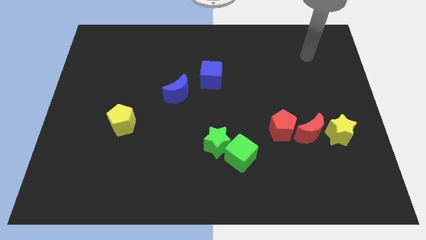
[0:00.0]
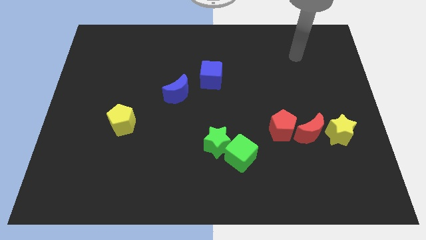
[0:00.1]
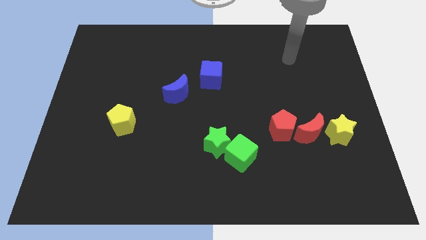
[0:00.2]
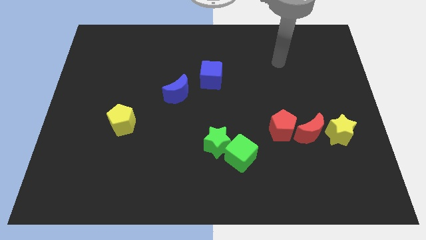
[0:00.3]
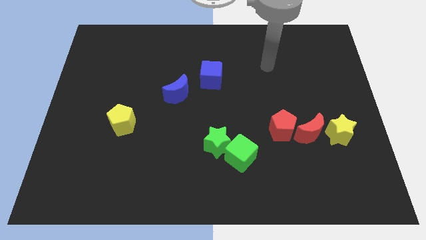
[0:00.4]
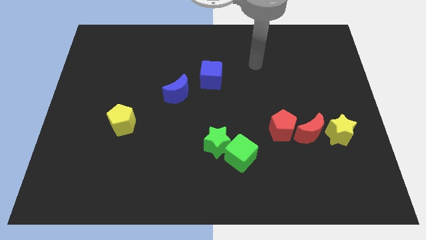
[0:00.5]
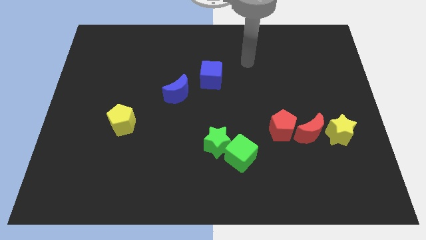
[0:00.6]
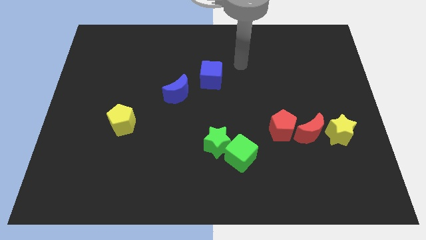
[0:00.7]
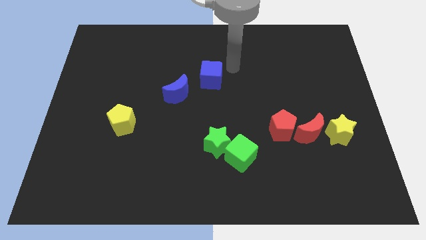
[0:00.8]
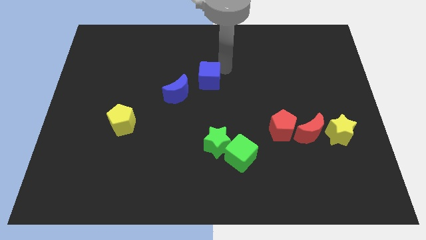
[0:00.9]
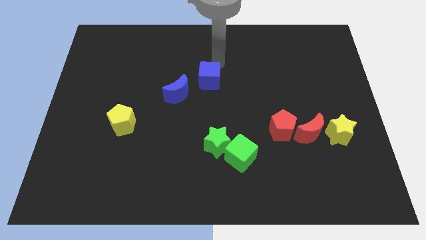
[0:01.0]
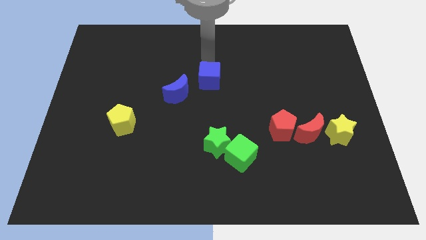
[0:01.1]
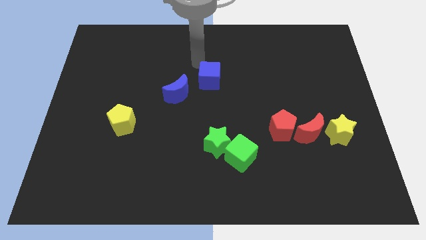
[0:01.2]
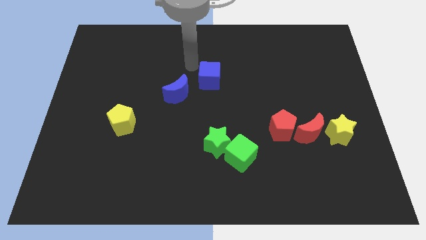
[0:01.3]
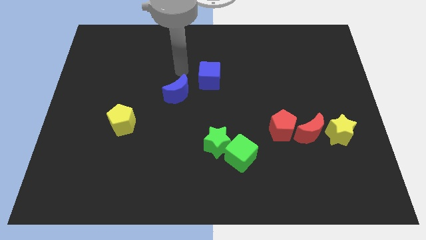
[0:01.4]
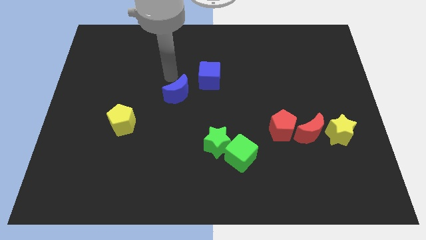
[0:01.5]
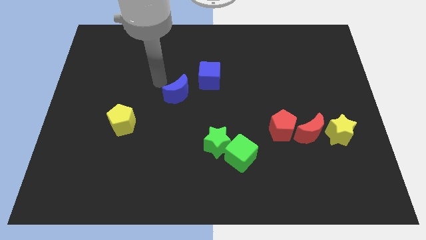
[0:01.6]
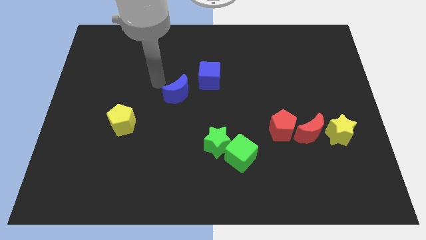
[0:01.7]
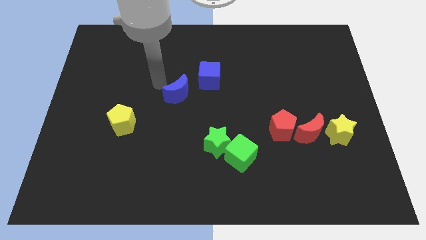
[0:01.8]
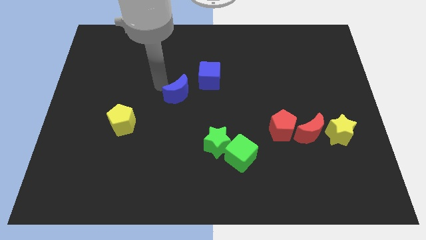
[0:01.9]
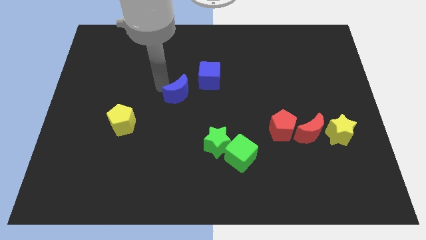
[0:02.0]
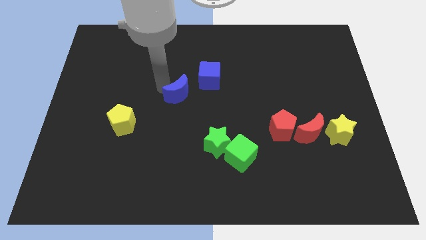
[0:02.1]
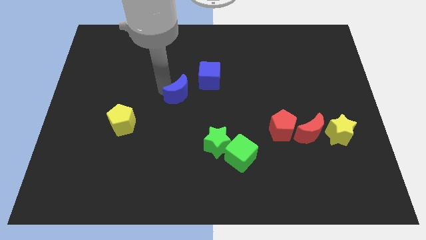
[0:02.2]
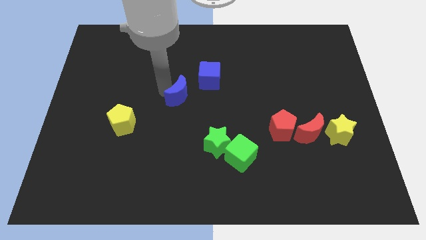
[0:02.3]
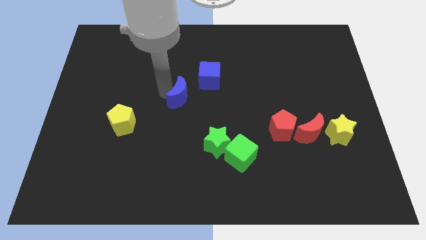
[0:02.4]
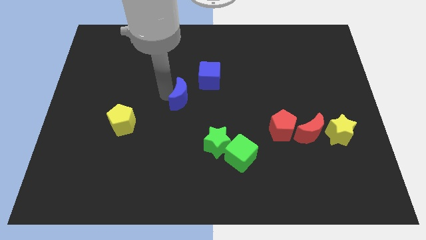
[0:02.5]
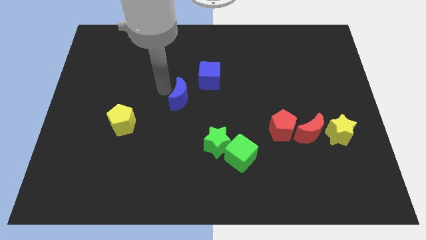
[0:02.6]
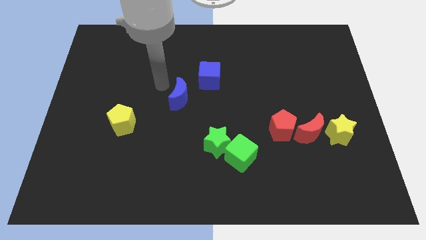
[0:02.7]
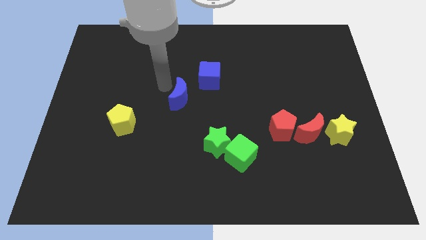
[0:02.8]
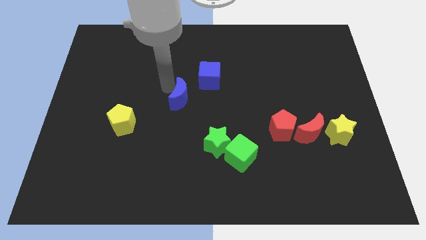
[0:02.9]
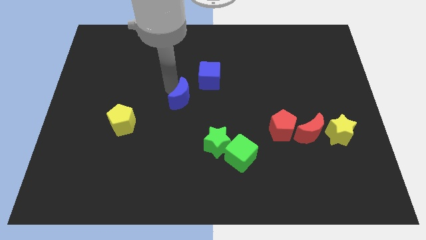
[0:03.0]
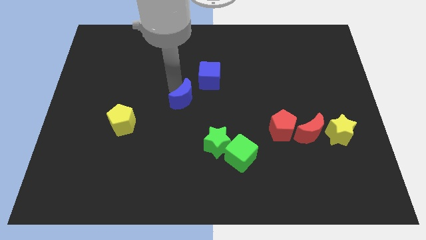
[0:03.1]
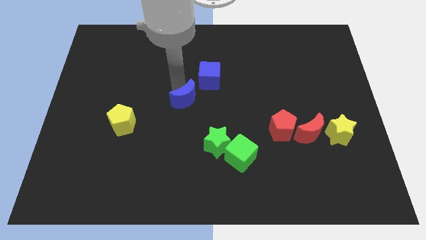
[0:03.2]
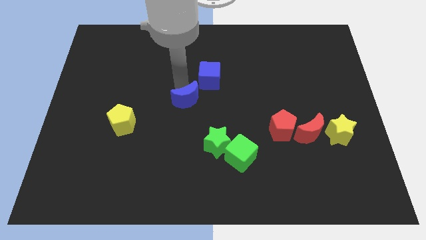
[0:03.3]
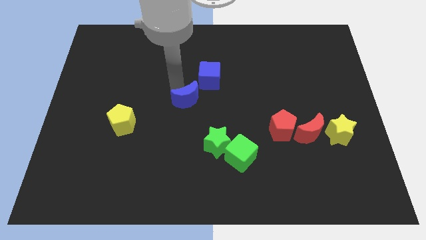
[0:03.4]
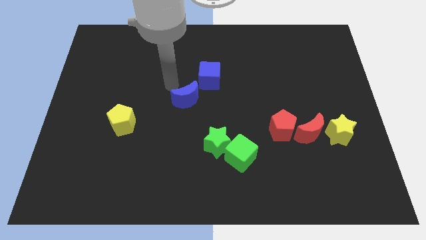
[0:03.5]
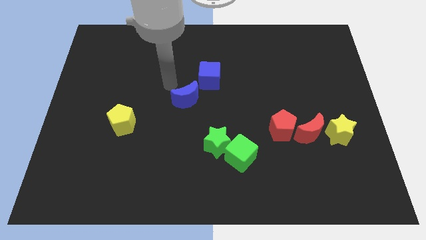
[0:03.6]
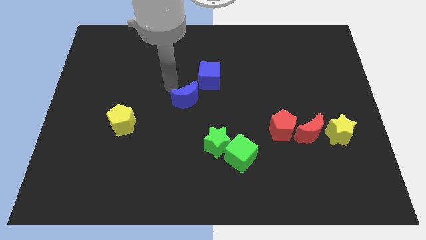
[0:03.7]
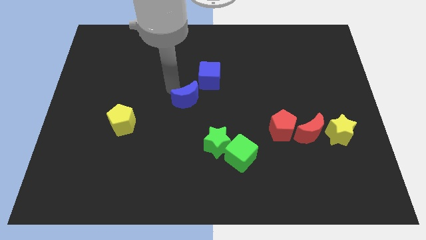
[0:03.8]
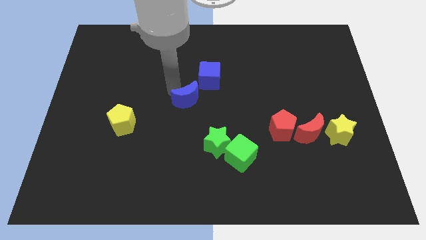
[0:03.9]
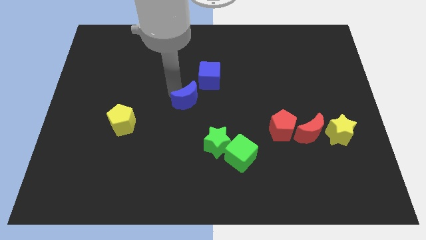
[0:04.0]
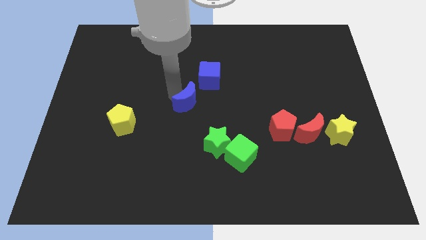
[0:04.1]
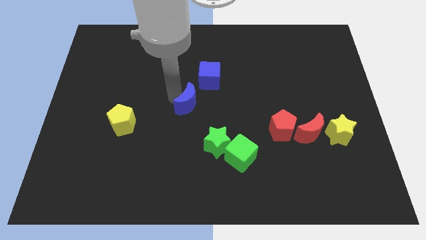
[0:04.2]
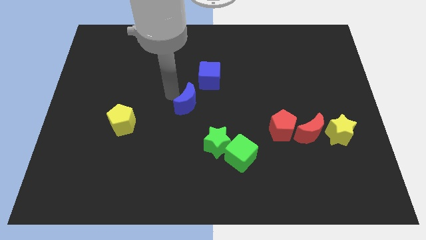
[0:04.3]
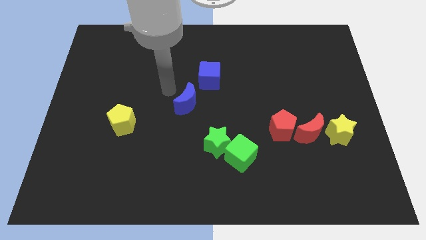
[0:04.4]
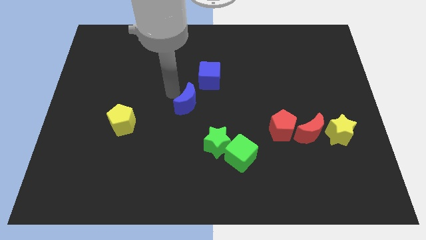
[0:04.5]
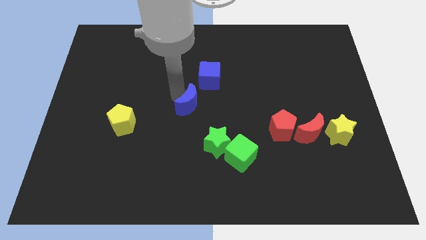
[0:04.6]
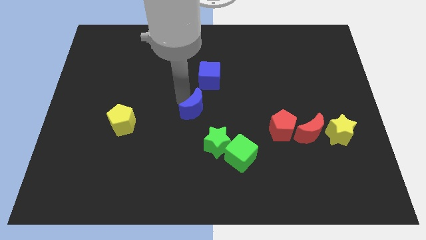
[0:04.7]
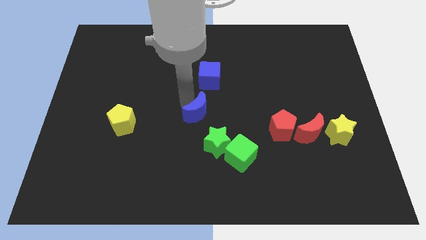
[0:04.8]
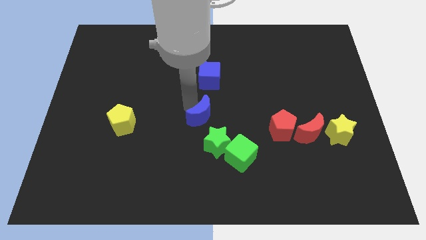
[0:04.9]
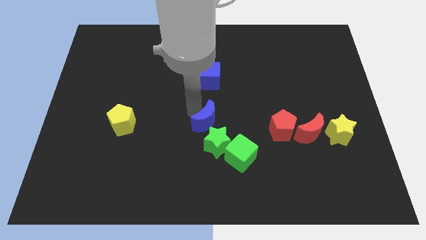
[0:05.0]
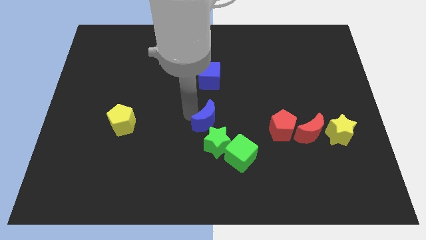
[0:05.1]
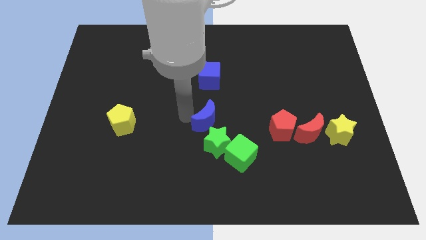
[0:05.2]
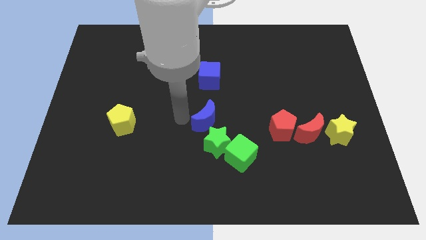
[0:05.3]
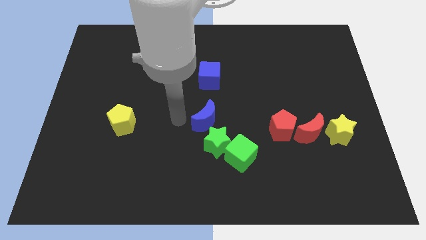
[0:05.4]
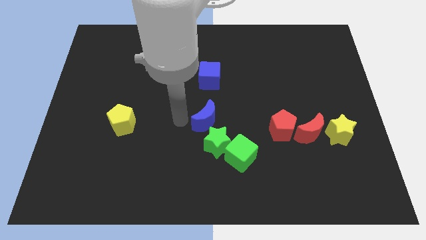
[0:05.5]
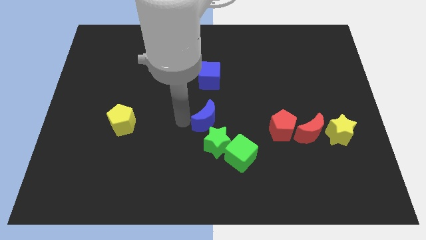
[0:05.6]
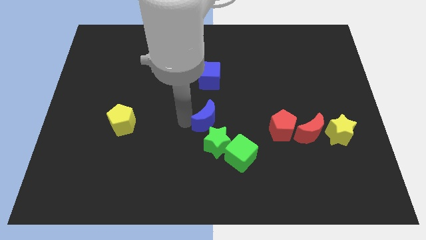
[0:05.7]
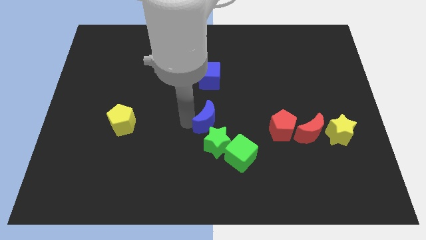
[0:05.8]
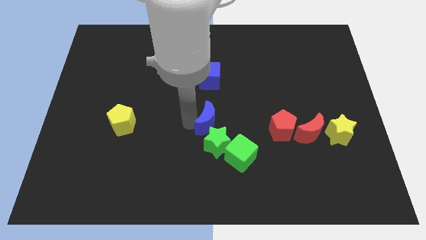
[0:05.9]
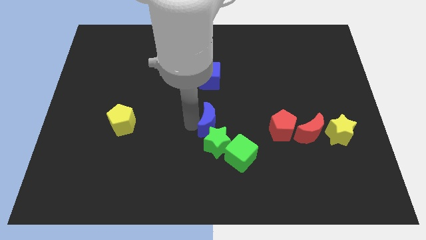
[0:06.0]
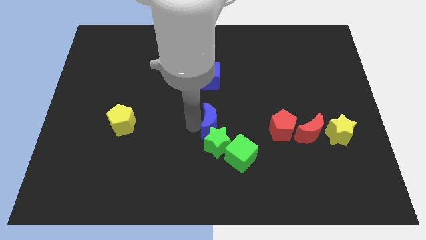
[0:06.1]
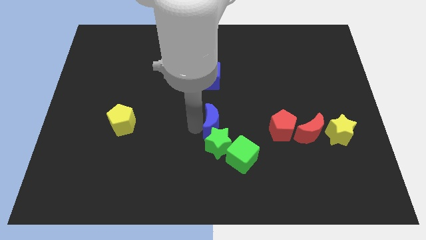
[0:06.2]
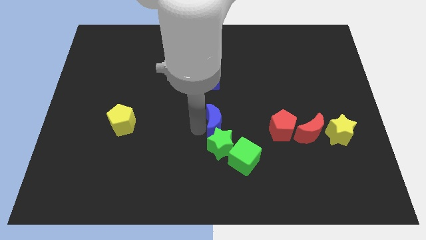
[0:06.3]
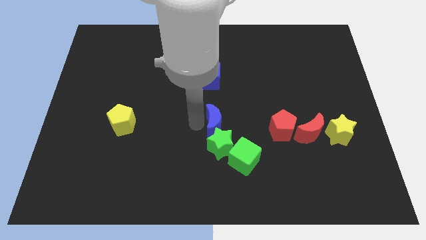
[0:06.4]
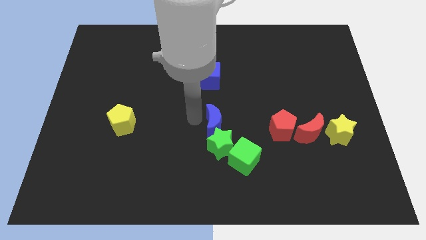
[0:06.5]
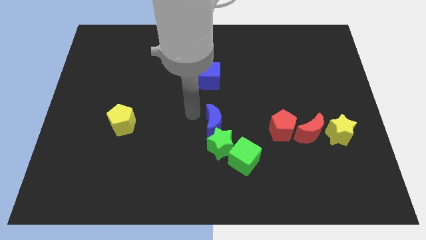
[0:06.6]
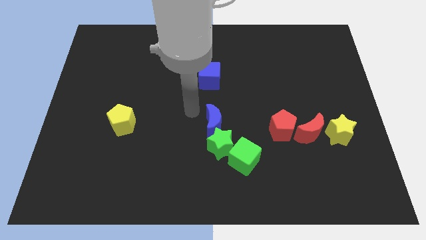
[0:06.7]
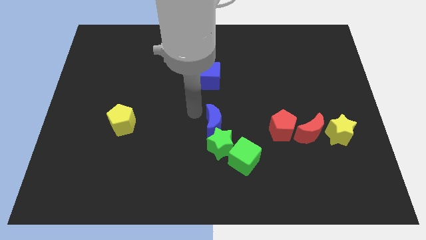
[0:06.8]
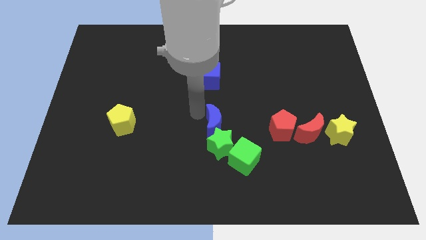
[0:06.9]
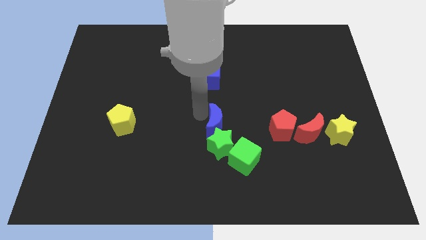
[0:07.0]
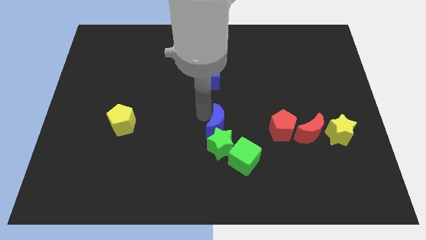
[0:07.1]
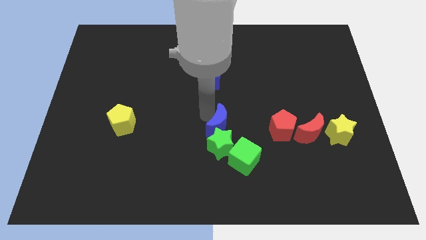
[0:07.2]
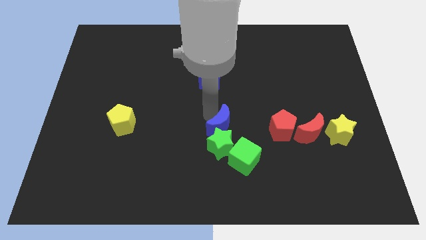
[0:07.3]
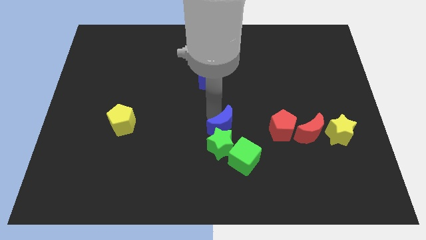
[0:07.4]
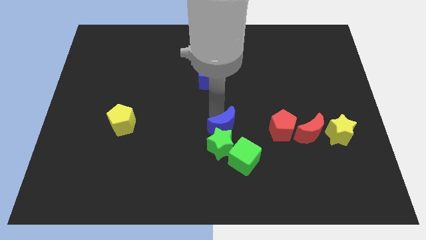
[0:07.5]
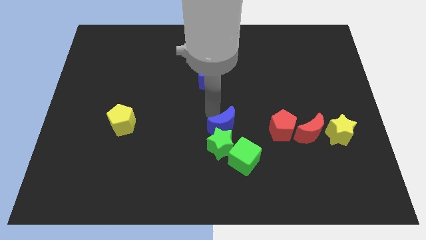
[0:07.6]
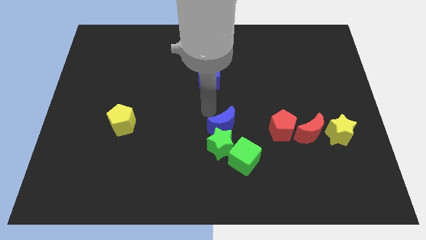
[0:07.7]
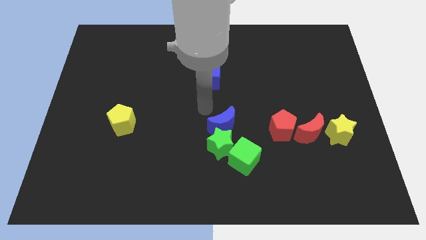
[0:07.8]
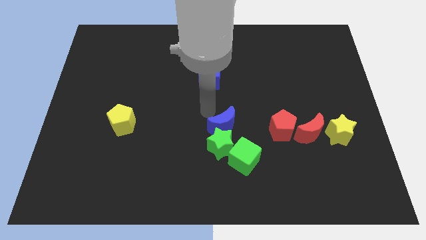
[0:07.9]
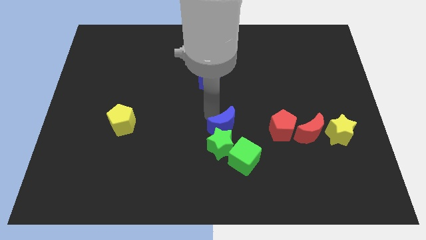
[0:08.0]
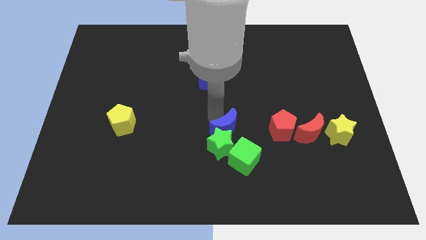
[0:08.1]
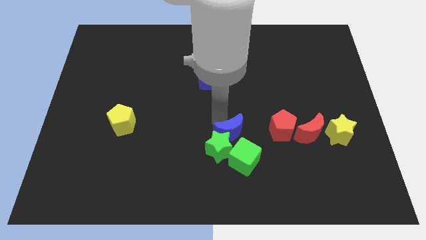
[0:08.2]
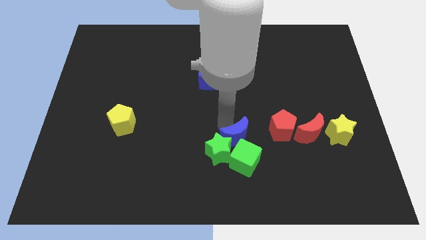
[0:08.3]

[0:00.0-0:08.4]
slide the blue moon towards the green cube
